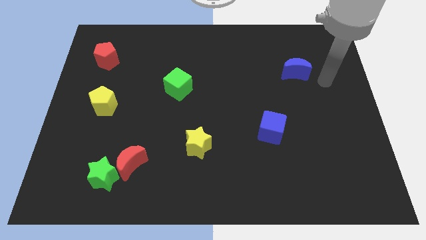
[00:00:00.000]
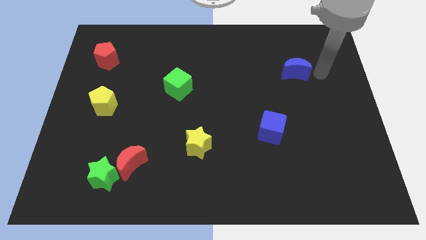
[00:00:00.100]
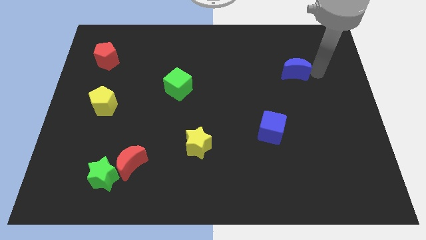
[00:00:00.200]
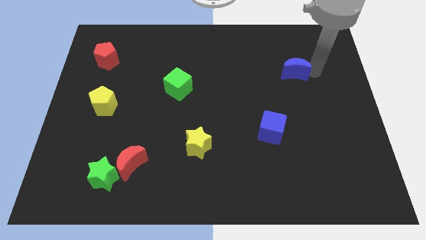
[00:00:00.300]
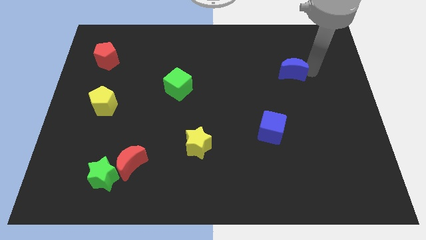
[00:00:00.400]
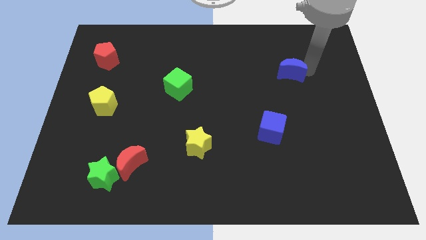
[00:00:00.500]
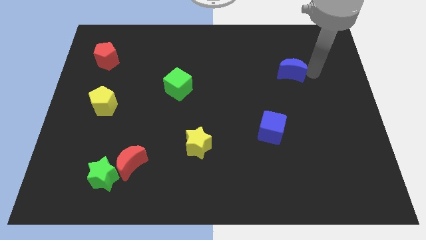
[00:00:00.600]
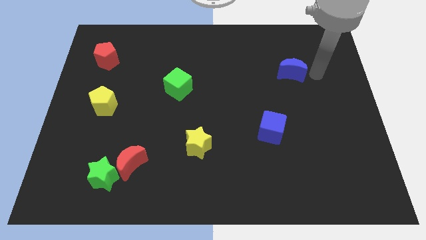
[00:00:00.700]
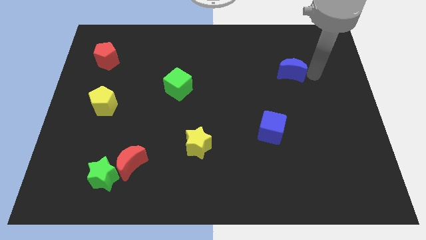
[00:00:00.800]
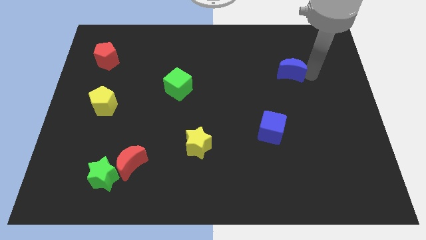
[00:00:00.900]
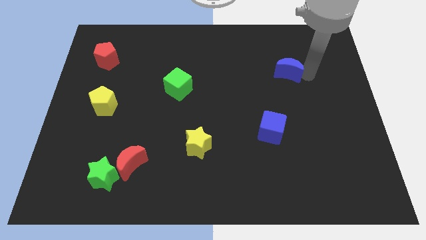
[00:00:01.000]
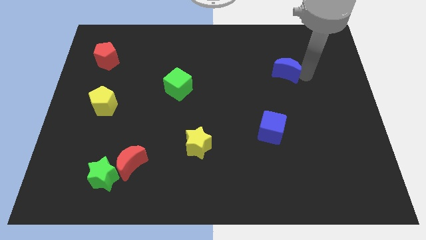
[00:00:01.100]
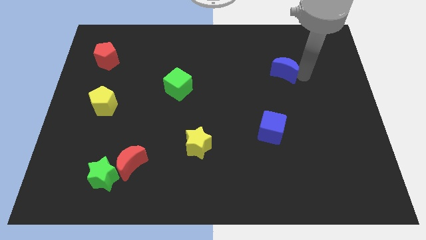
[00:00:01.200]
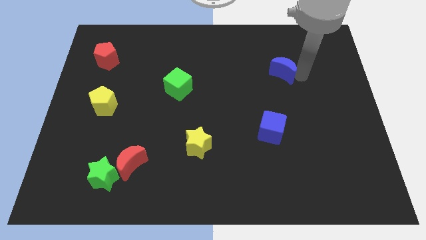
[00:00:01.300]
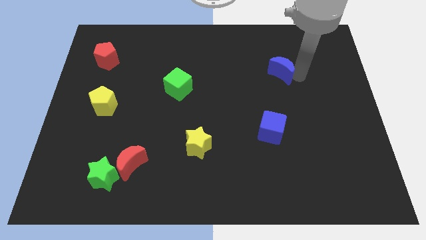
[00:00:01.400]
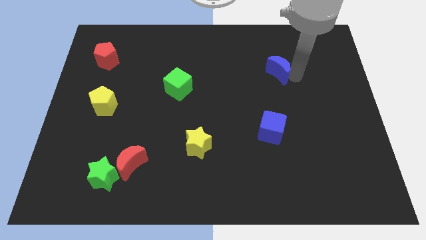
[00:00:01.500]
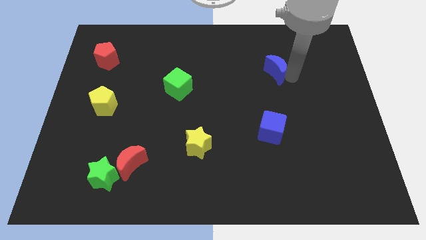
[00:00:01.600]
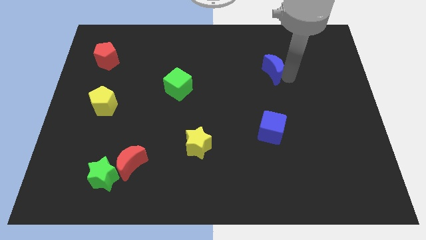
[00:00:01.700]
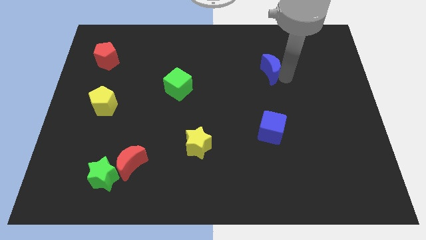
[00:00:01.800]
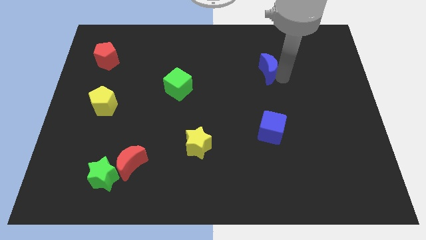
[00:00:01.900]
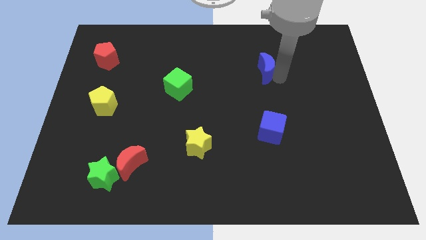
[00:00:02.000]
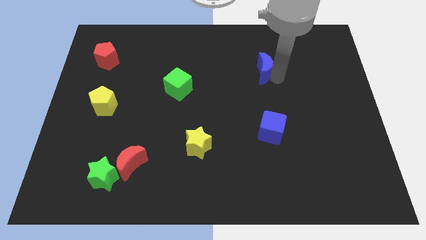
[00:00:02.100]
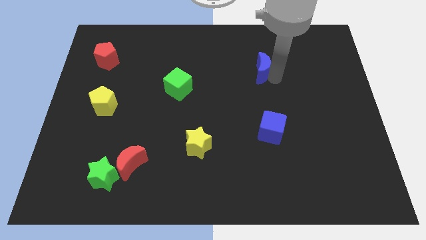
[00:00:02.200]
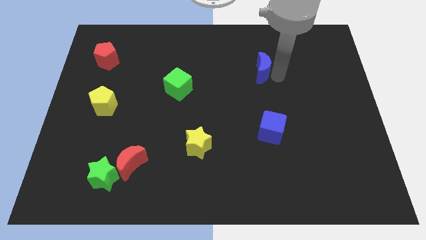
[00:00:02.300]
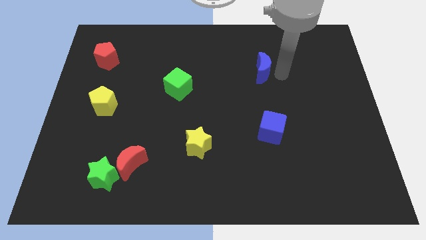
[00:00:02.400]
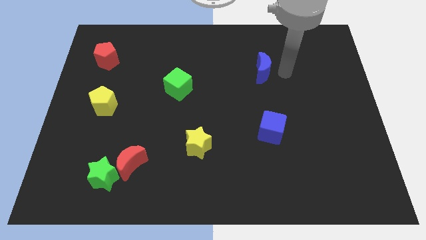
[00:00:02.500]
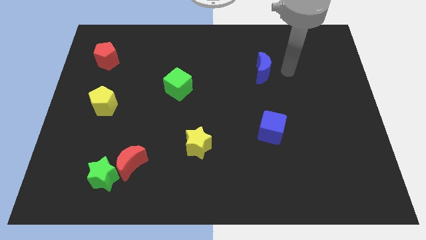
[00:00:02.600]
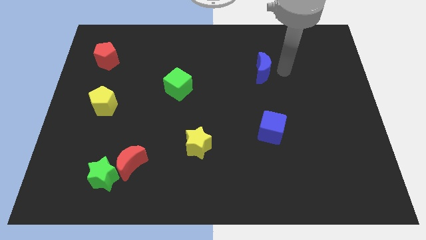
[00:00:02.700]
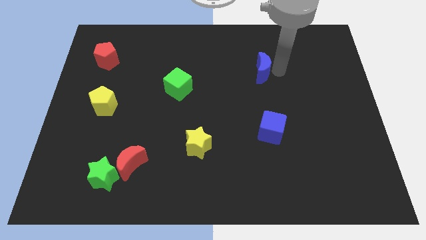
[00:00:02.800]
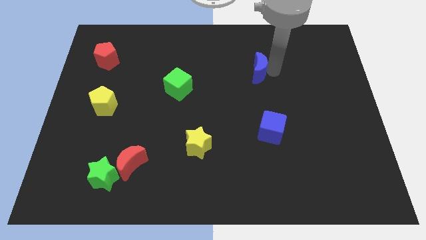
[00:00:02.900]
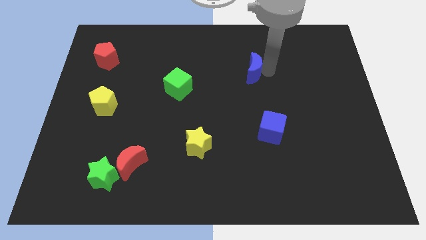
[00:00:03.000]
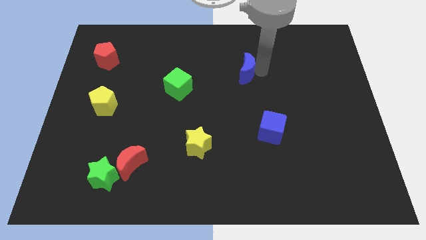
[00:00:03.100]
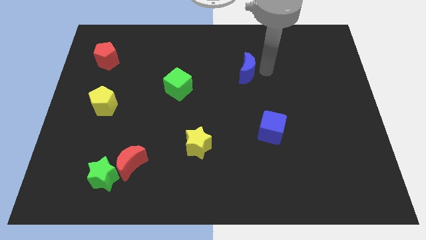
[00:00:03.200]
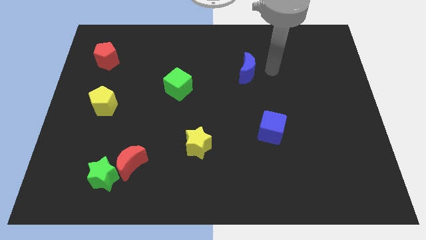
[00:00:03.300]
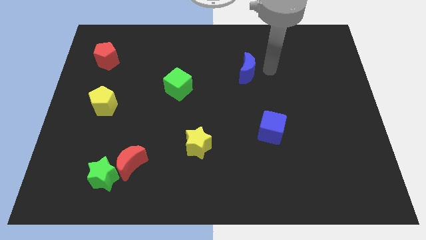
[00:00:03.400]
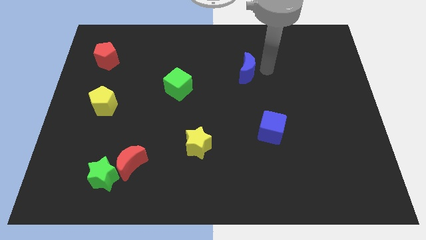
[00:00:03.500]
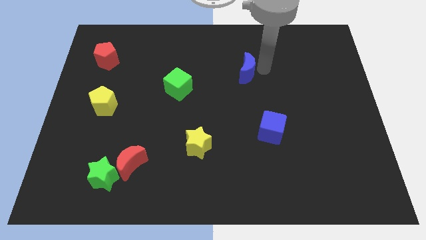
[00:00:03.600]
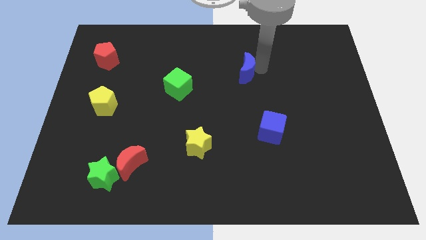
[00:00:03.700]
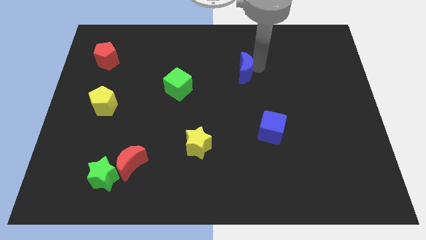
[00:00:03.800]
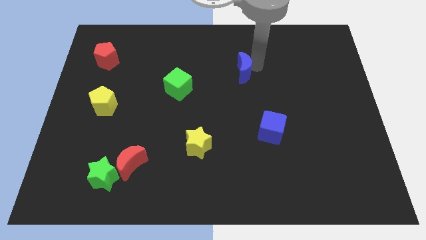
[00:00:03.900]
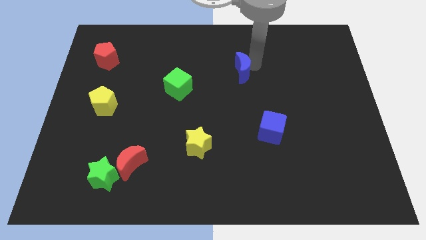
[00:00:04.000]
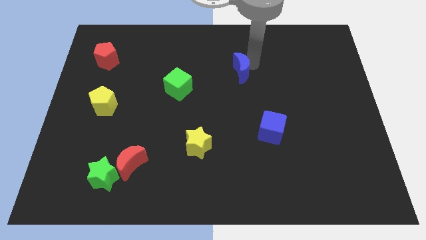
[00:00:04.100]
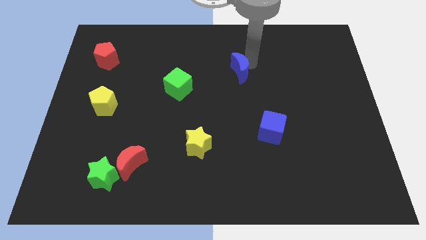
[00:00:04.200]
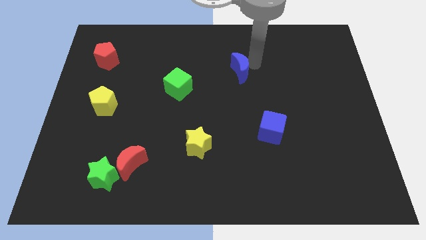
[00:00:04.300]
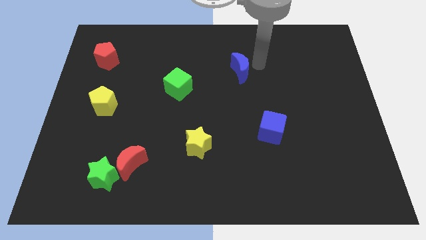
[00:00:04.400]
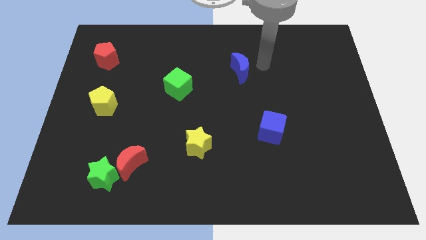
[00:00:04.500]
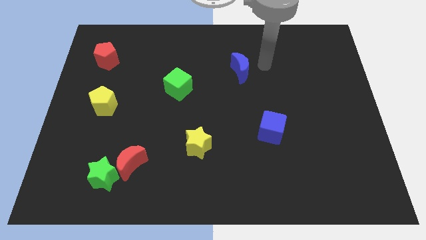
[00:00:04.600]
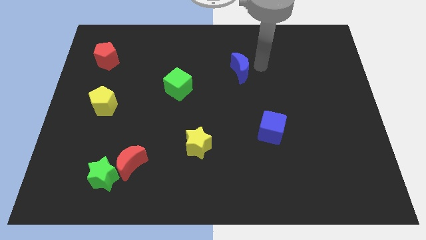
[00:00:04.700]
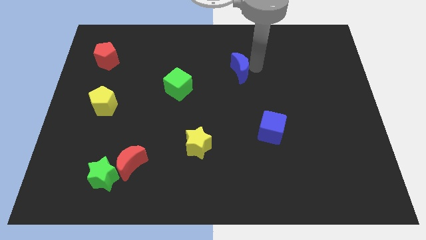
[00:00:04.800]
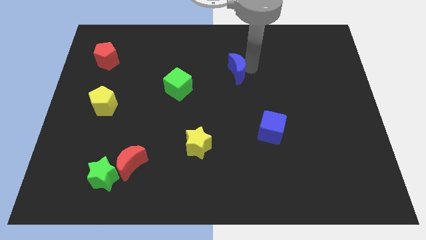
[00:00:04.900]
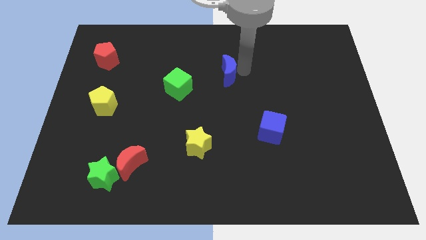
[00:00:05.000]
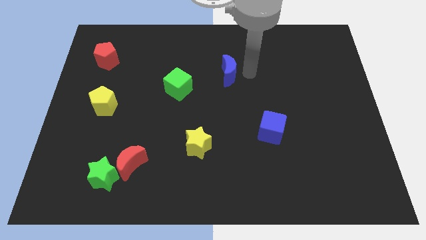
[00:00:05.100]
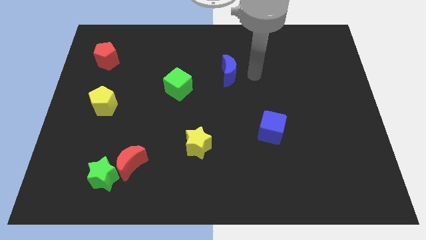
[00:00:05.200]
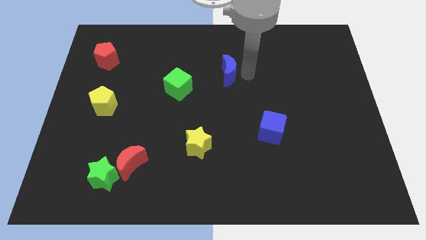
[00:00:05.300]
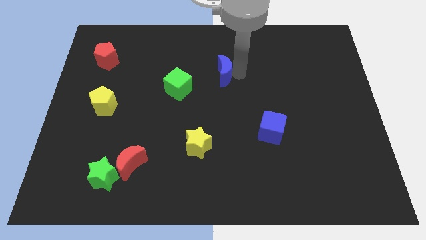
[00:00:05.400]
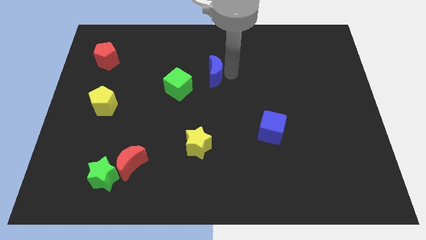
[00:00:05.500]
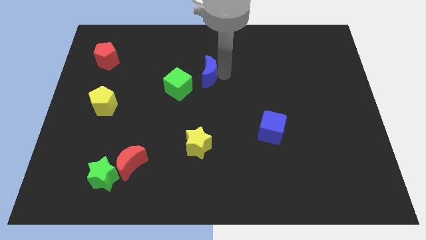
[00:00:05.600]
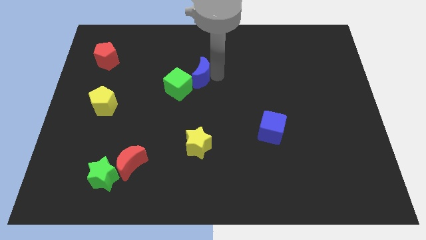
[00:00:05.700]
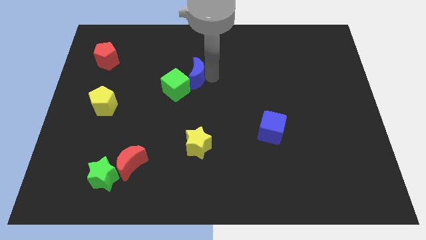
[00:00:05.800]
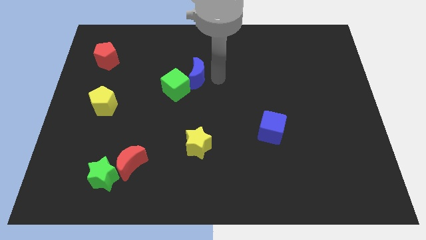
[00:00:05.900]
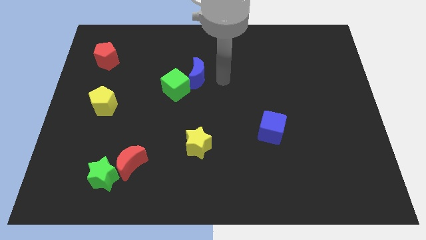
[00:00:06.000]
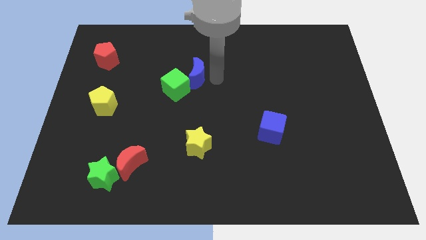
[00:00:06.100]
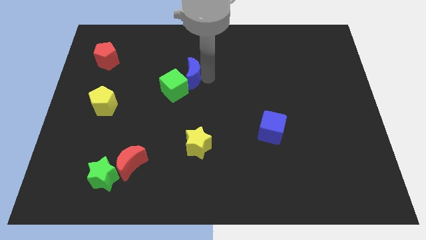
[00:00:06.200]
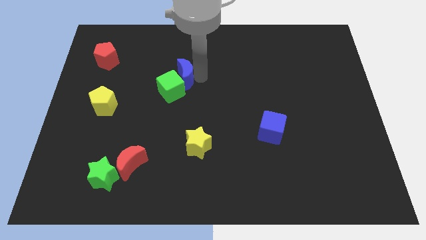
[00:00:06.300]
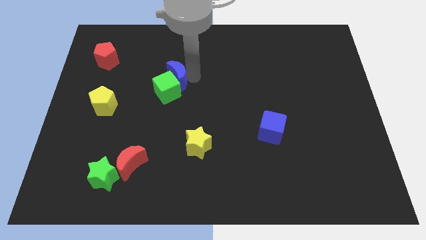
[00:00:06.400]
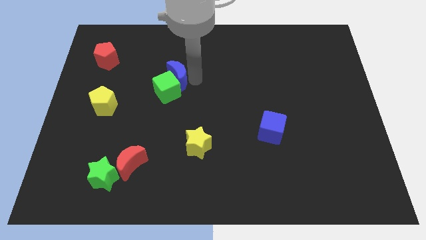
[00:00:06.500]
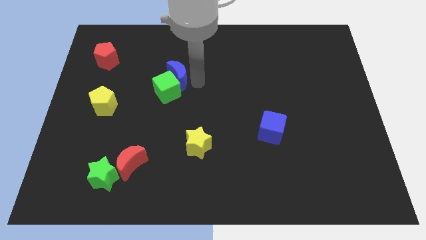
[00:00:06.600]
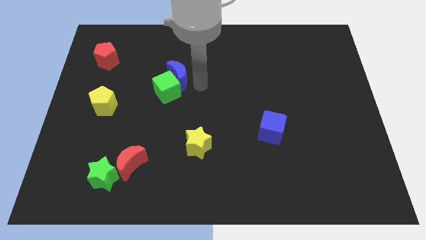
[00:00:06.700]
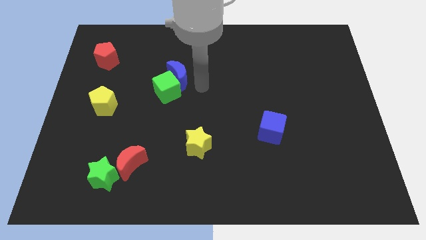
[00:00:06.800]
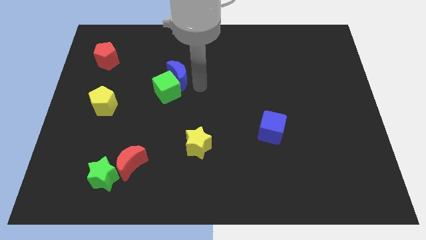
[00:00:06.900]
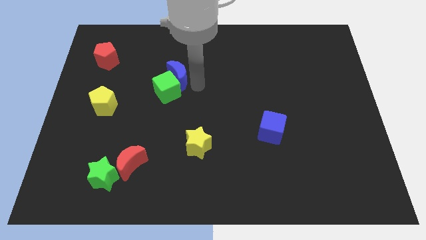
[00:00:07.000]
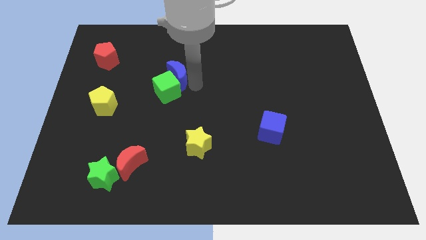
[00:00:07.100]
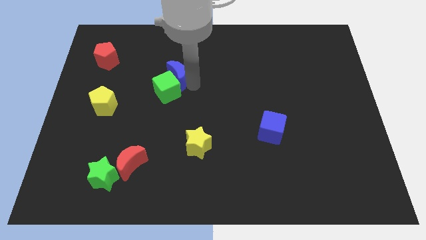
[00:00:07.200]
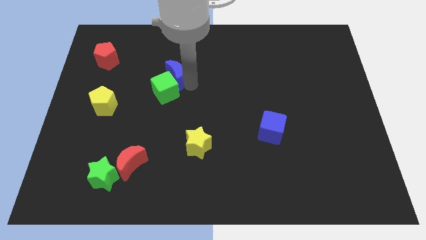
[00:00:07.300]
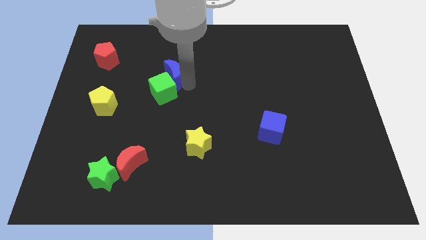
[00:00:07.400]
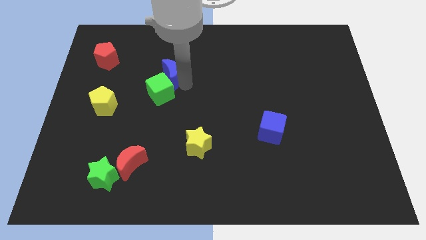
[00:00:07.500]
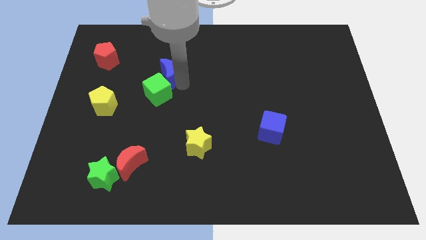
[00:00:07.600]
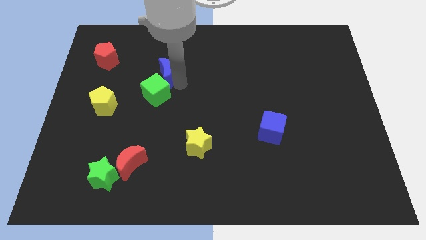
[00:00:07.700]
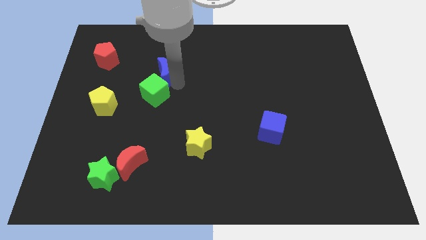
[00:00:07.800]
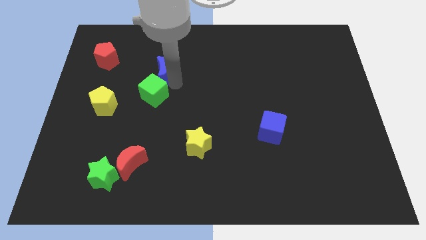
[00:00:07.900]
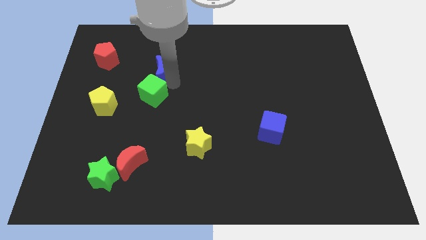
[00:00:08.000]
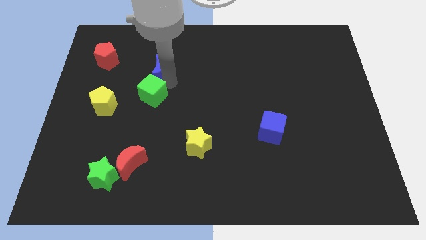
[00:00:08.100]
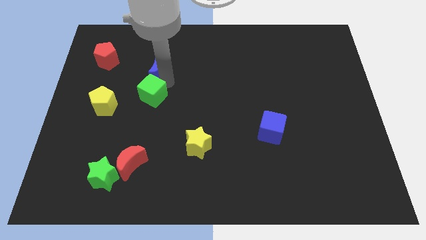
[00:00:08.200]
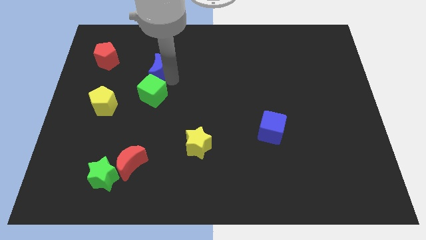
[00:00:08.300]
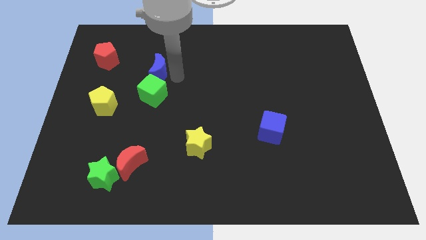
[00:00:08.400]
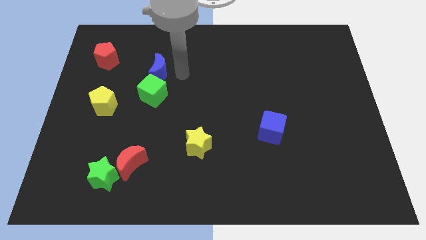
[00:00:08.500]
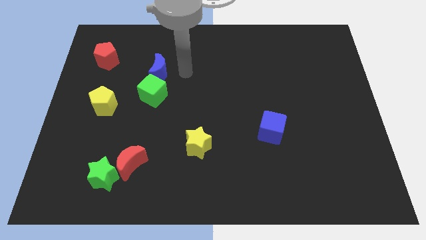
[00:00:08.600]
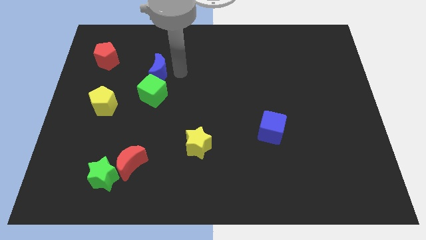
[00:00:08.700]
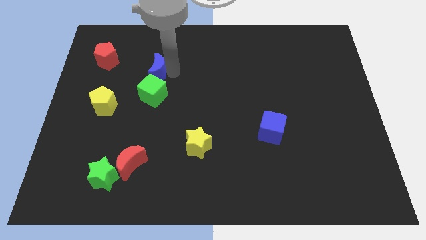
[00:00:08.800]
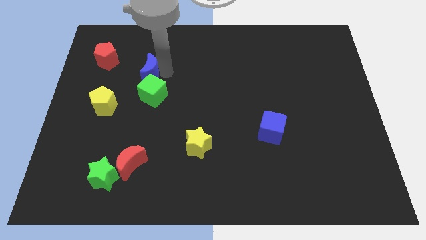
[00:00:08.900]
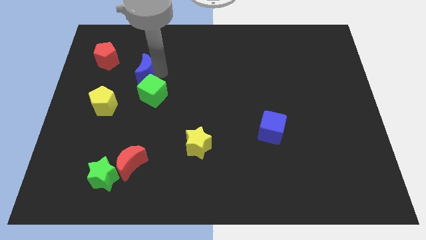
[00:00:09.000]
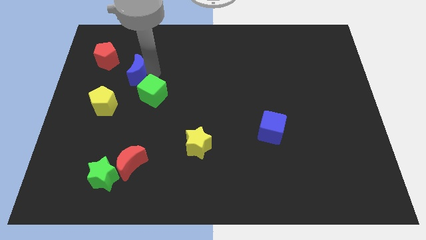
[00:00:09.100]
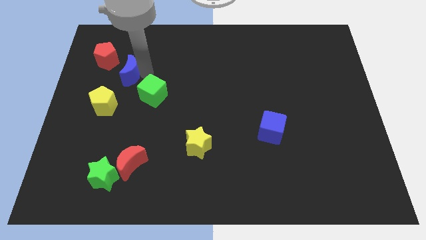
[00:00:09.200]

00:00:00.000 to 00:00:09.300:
put the blue moon to the top side of the yellow pentagon
